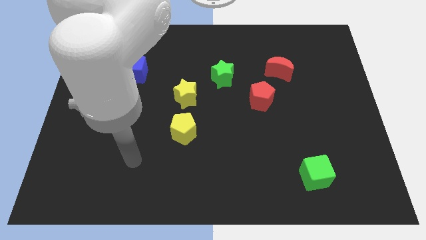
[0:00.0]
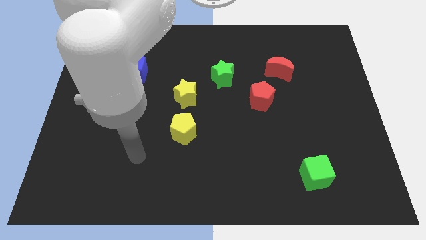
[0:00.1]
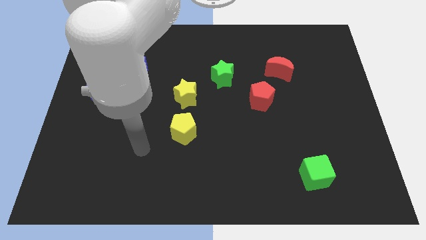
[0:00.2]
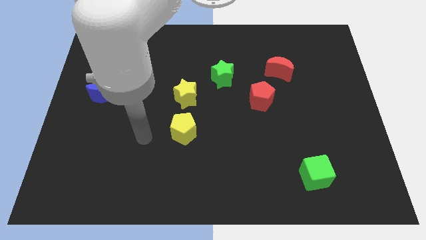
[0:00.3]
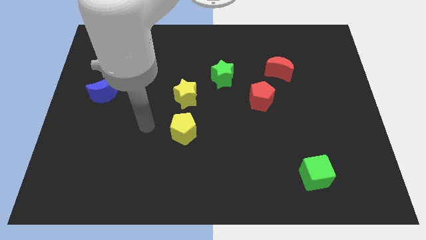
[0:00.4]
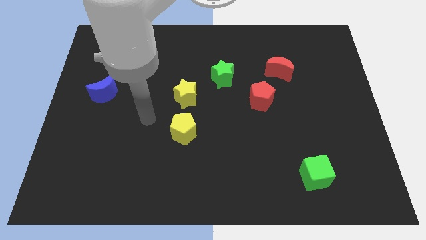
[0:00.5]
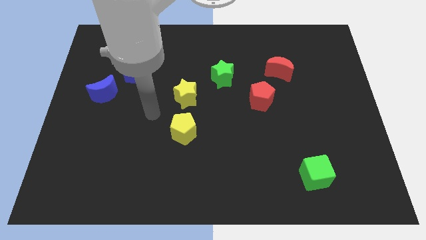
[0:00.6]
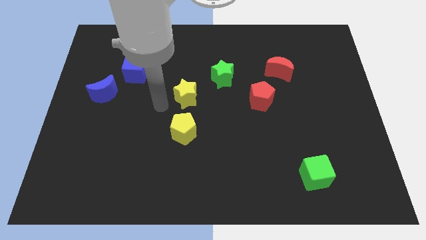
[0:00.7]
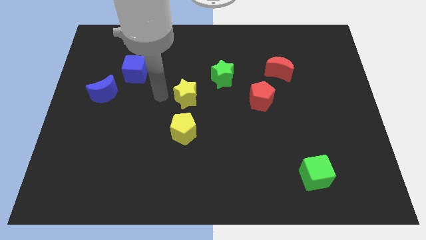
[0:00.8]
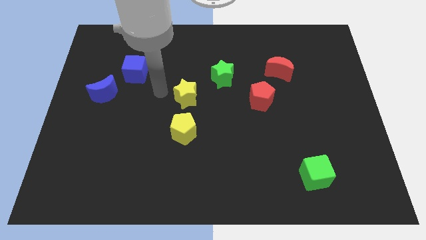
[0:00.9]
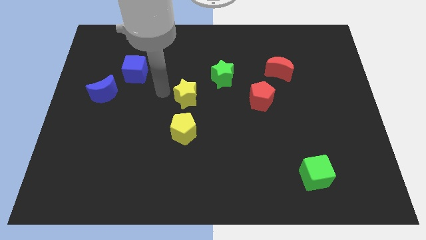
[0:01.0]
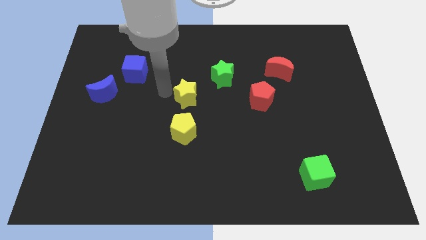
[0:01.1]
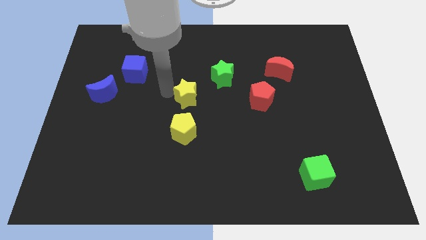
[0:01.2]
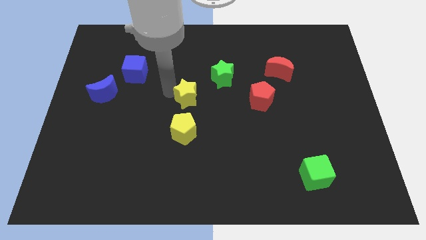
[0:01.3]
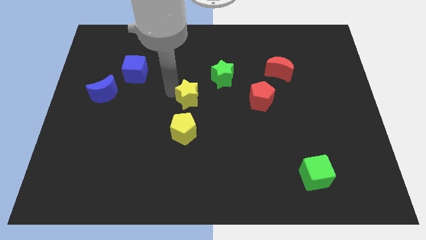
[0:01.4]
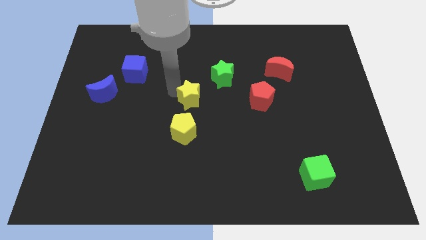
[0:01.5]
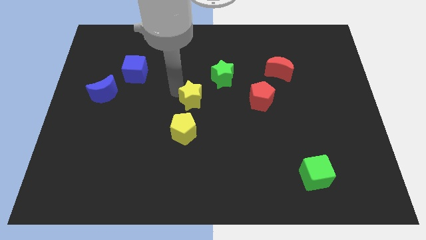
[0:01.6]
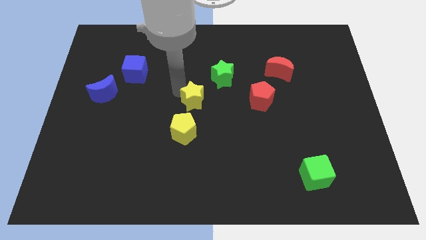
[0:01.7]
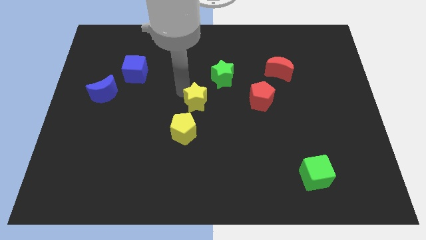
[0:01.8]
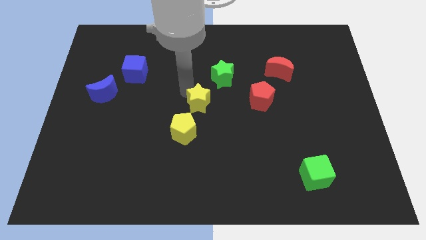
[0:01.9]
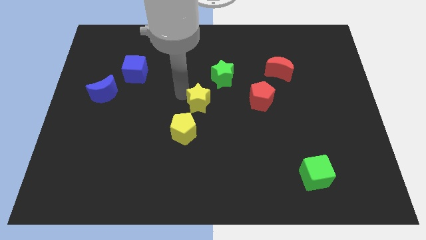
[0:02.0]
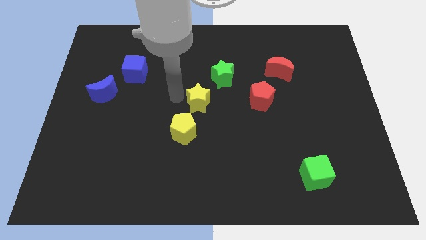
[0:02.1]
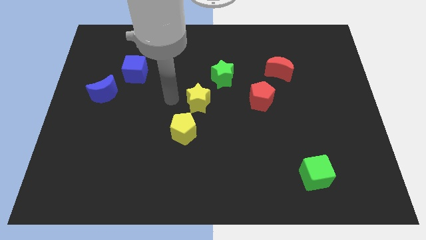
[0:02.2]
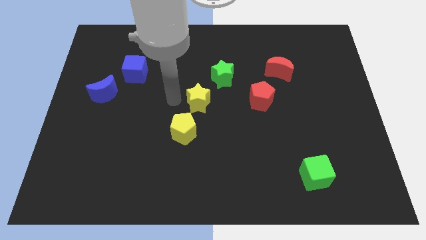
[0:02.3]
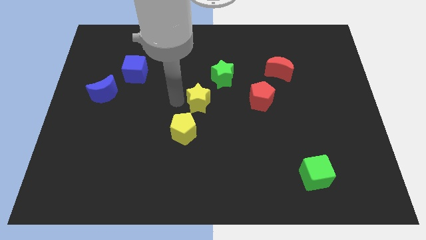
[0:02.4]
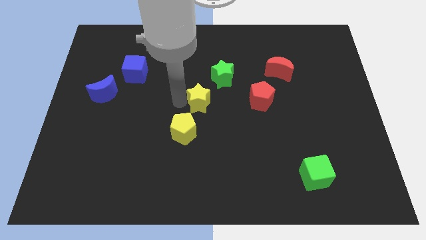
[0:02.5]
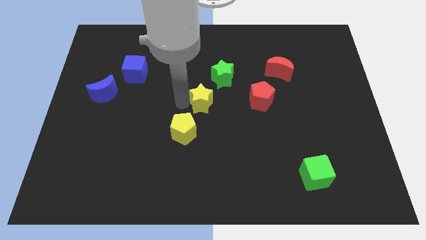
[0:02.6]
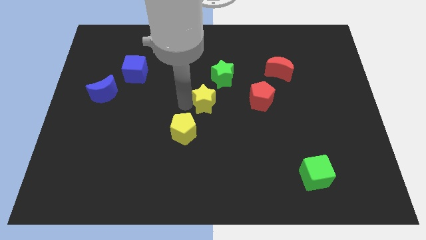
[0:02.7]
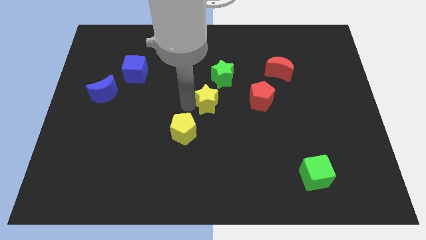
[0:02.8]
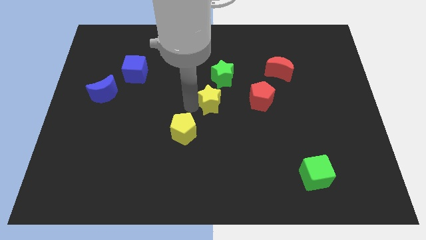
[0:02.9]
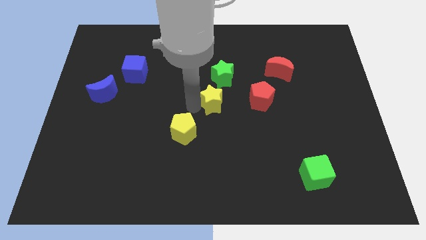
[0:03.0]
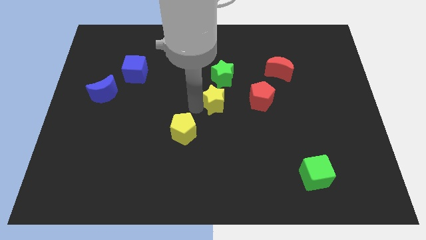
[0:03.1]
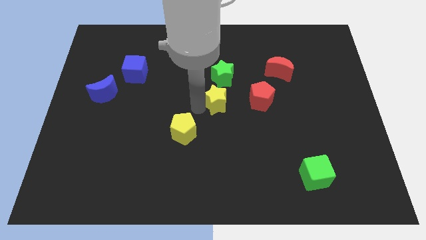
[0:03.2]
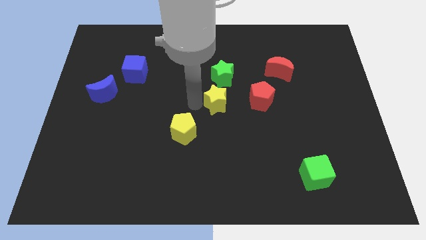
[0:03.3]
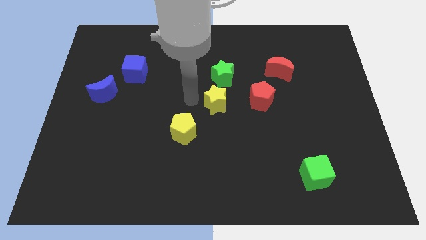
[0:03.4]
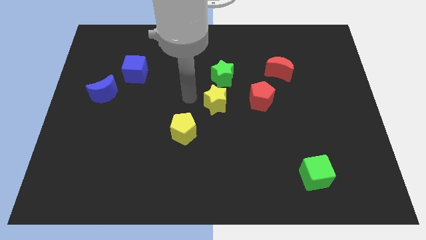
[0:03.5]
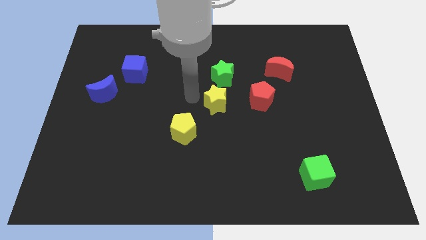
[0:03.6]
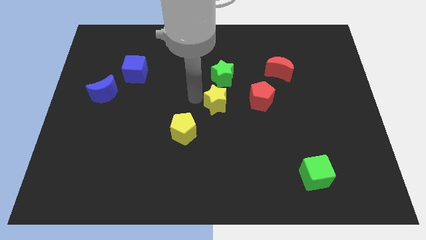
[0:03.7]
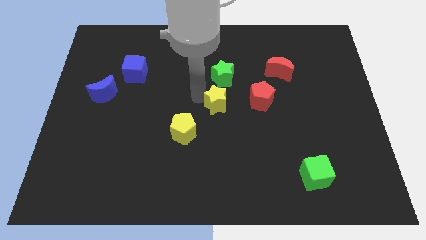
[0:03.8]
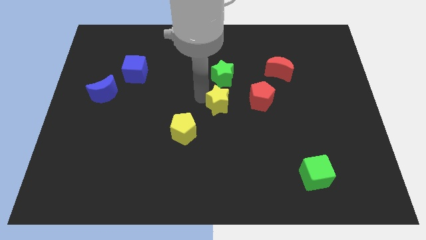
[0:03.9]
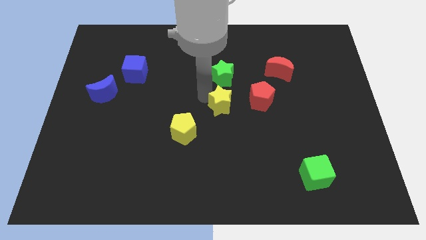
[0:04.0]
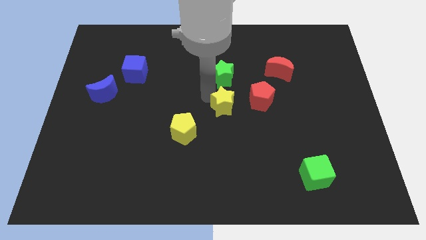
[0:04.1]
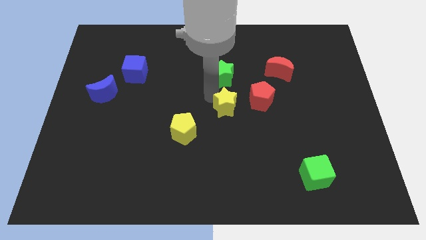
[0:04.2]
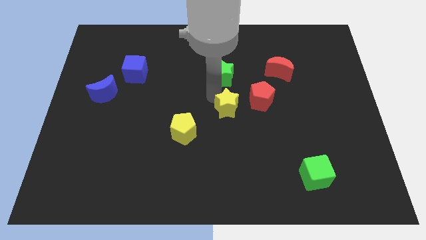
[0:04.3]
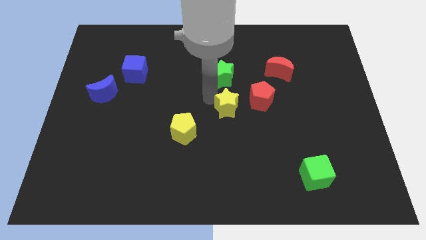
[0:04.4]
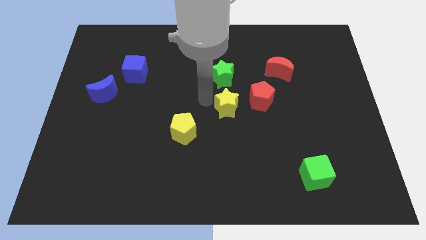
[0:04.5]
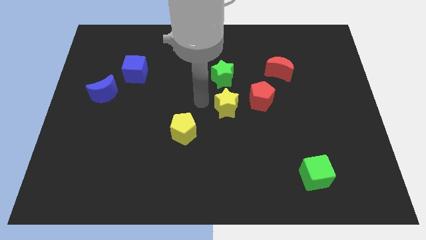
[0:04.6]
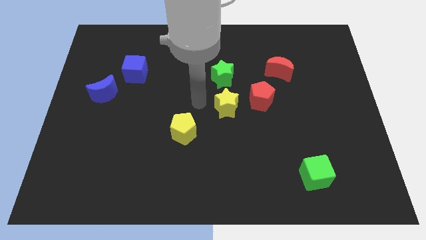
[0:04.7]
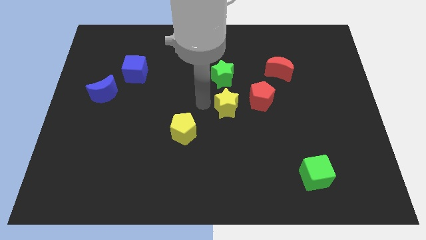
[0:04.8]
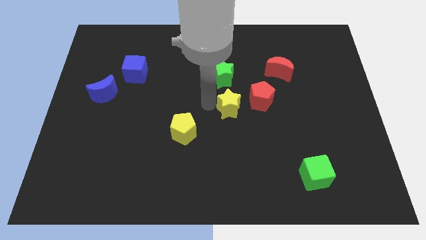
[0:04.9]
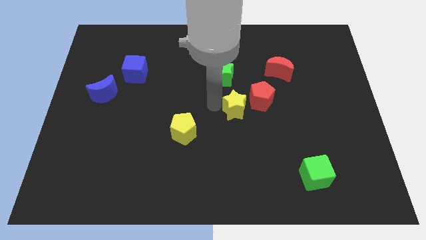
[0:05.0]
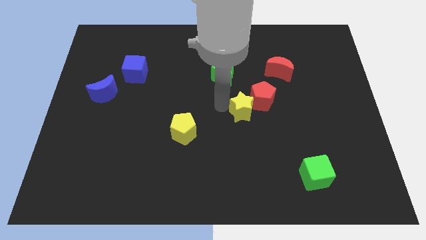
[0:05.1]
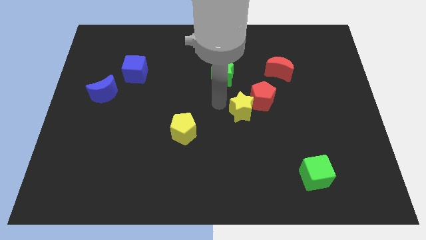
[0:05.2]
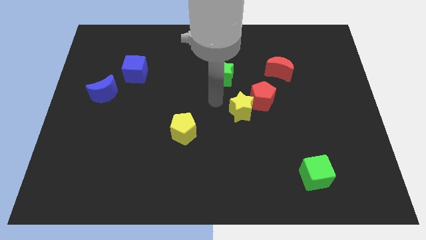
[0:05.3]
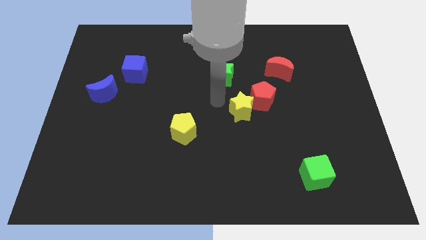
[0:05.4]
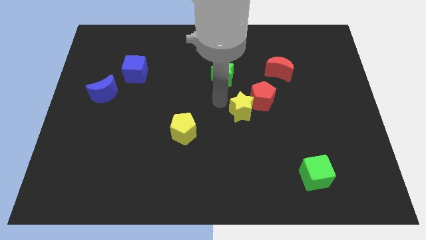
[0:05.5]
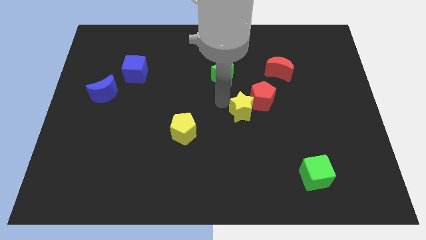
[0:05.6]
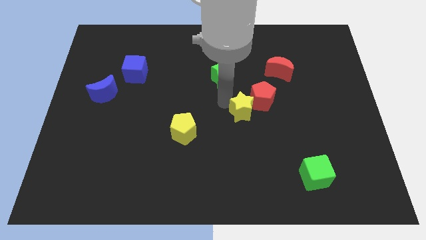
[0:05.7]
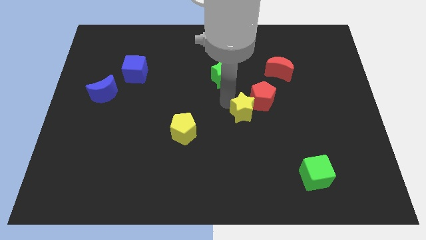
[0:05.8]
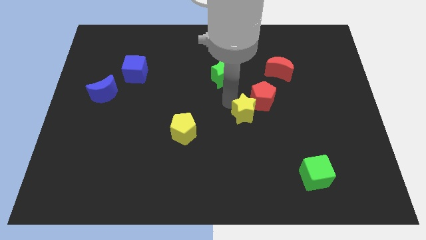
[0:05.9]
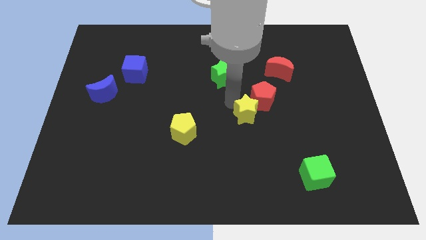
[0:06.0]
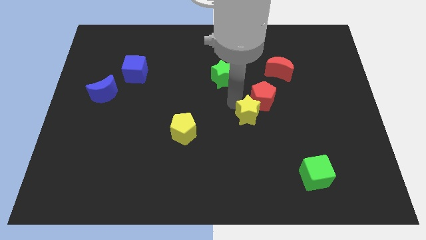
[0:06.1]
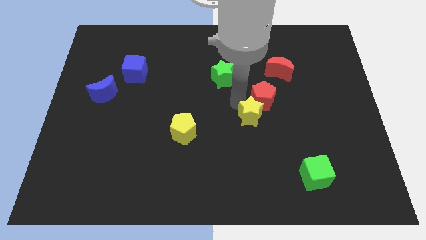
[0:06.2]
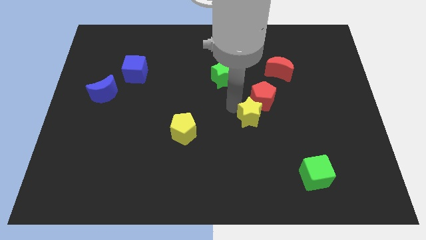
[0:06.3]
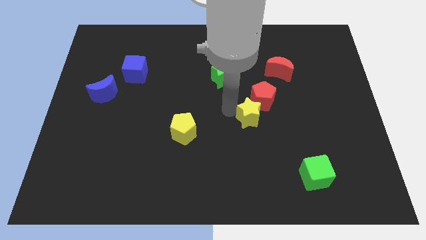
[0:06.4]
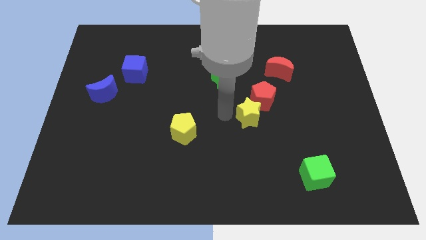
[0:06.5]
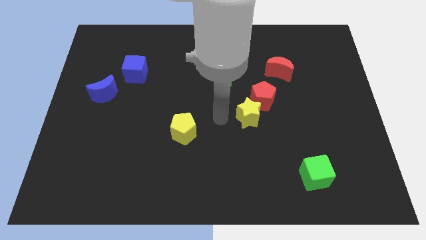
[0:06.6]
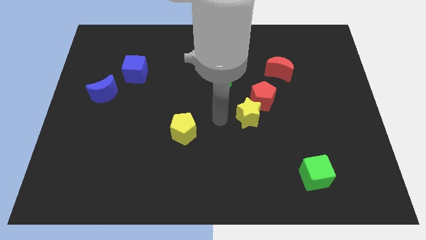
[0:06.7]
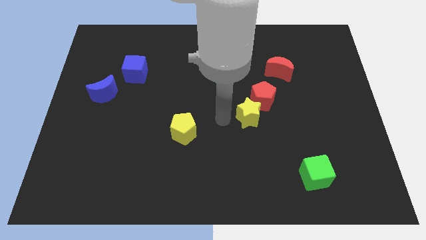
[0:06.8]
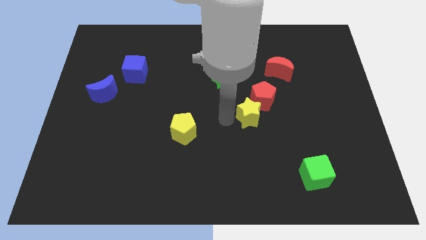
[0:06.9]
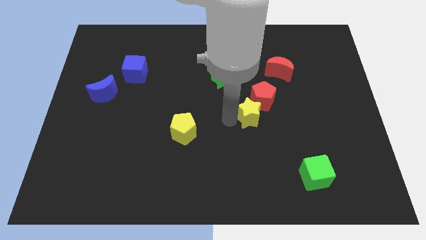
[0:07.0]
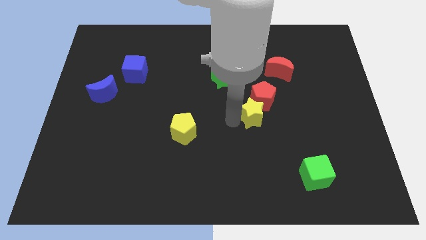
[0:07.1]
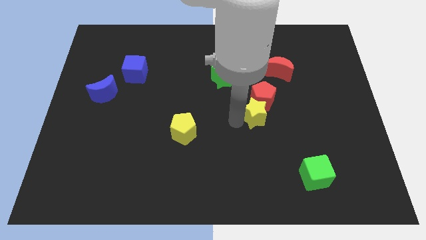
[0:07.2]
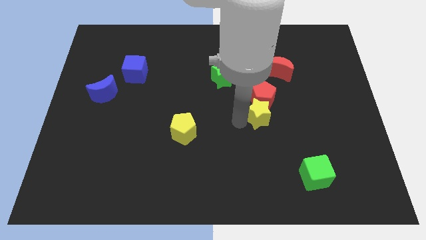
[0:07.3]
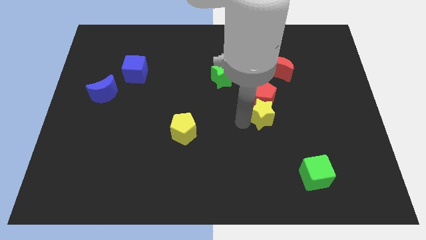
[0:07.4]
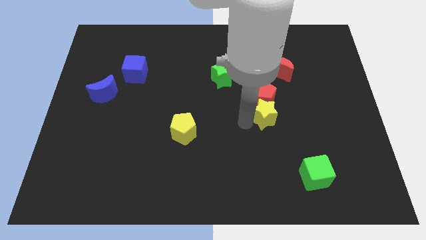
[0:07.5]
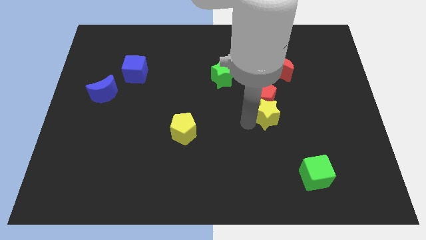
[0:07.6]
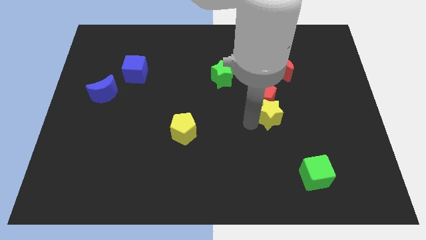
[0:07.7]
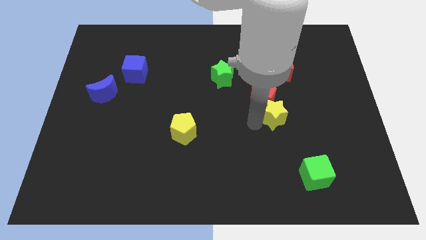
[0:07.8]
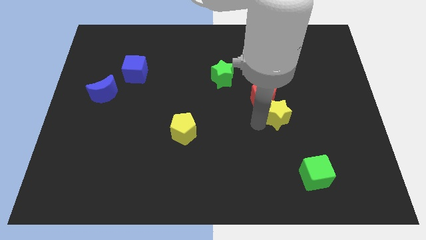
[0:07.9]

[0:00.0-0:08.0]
move the yellow star to the right

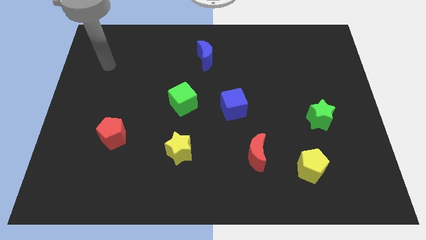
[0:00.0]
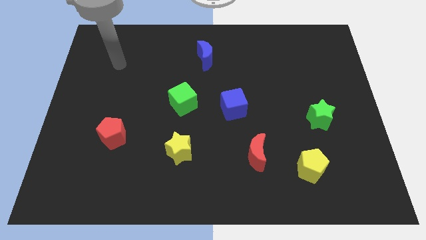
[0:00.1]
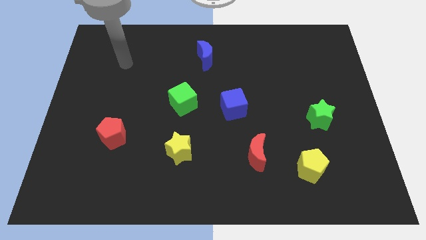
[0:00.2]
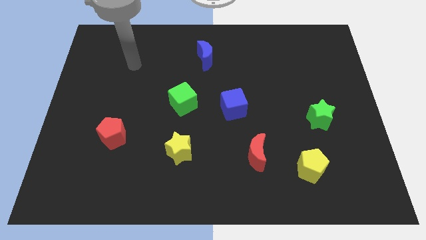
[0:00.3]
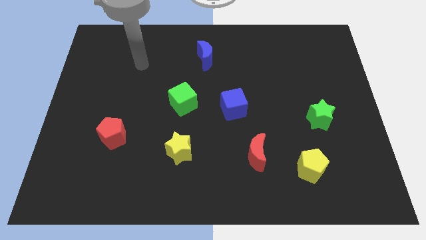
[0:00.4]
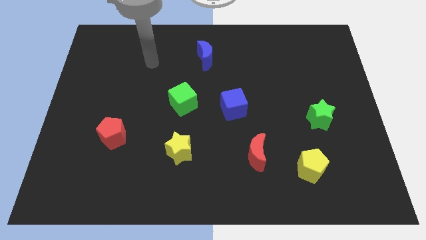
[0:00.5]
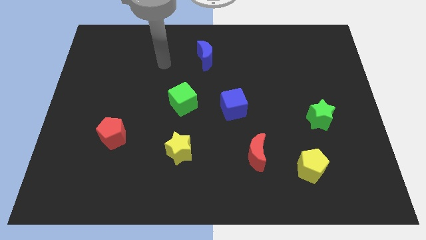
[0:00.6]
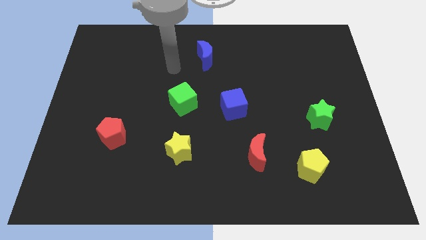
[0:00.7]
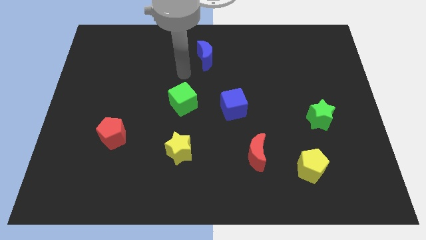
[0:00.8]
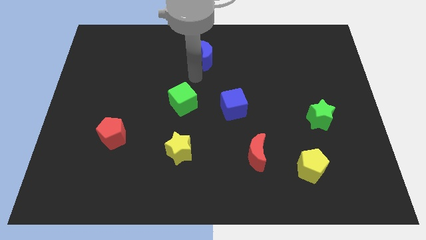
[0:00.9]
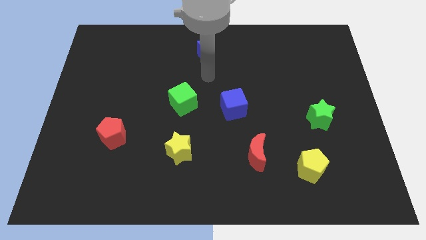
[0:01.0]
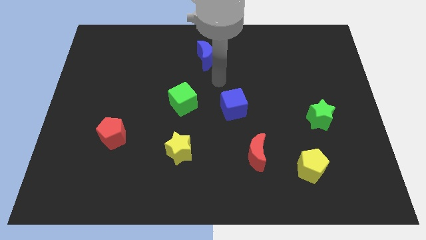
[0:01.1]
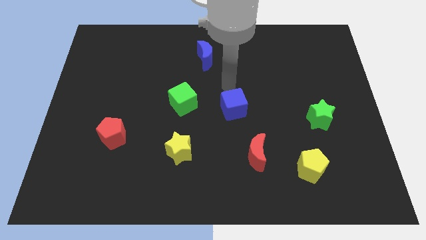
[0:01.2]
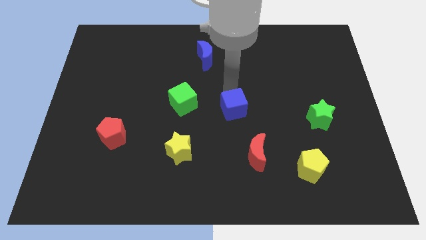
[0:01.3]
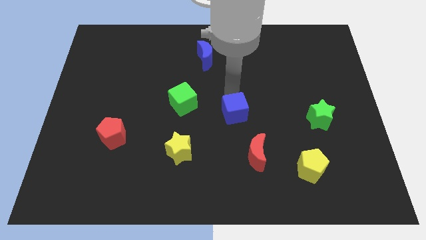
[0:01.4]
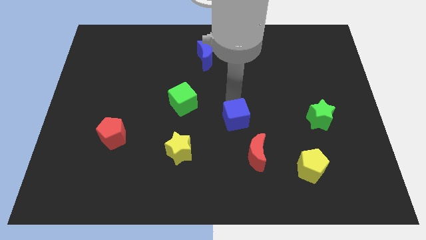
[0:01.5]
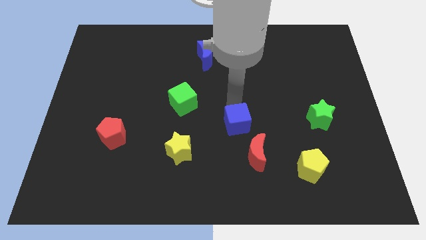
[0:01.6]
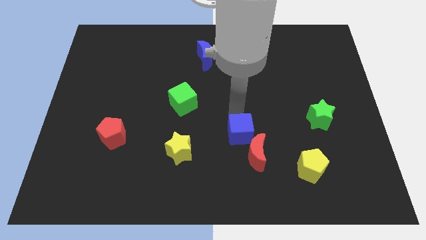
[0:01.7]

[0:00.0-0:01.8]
slide the blue cube down a bit
